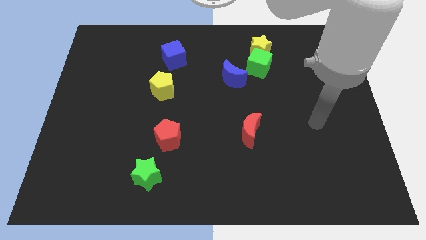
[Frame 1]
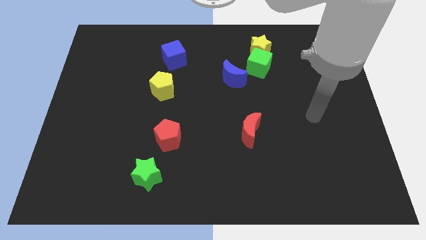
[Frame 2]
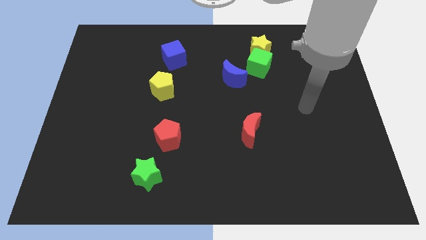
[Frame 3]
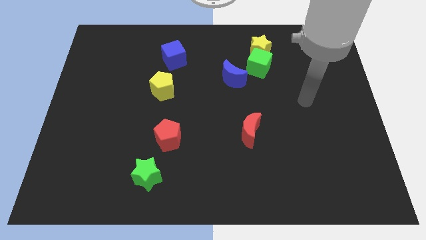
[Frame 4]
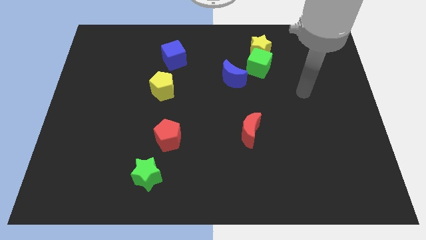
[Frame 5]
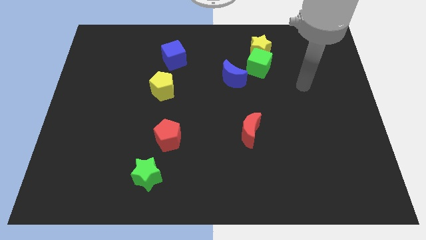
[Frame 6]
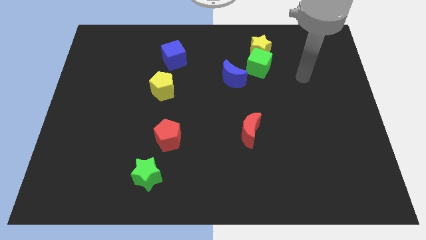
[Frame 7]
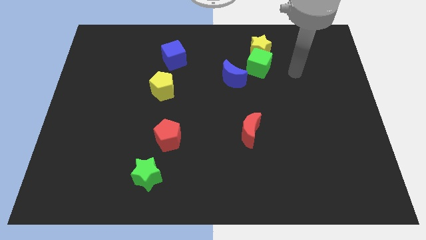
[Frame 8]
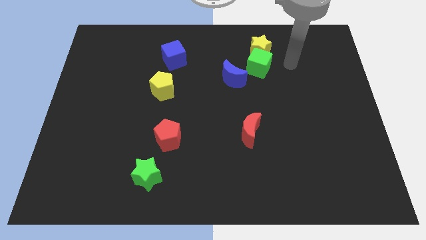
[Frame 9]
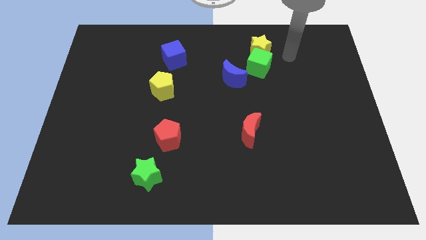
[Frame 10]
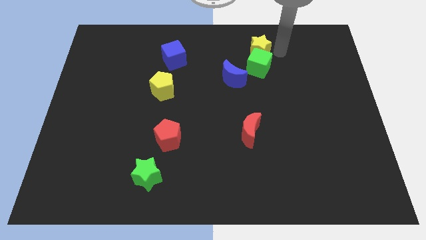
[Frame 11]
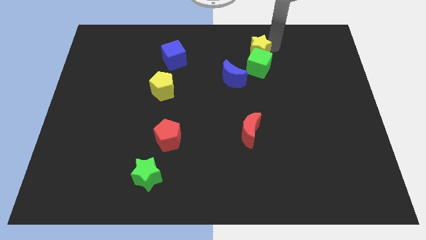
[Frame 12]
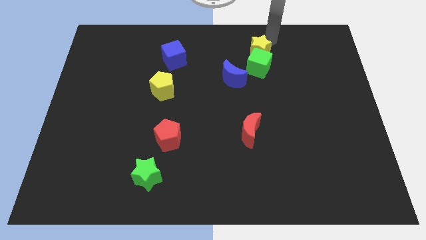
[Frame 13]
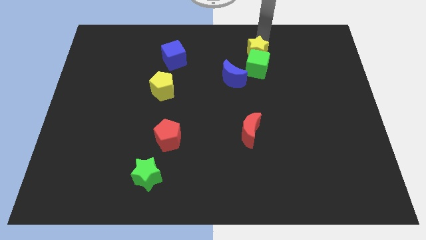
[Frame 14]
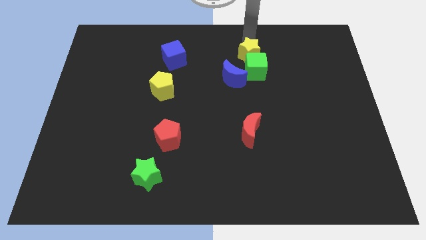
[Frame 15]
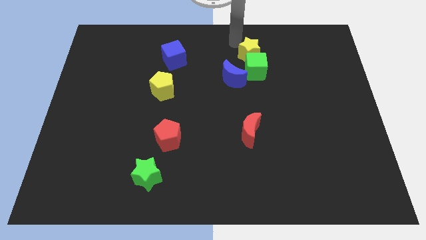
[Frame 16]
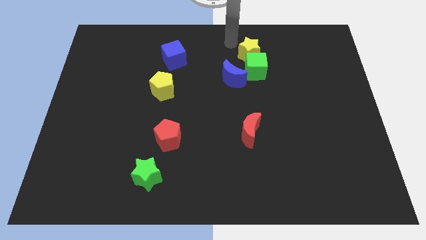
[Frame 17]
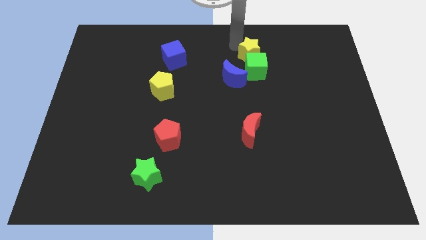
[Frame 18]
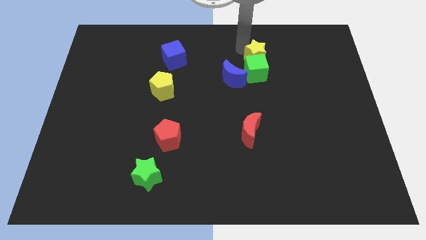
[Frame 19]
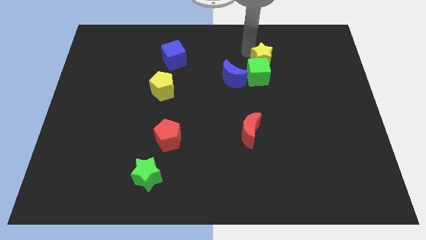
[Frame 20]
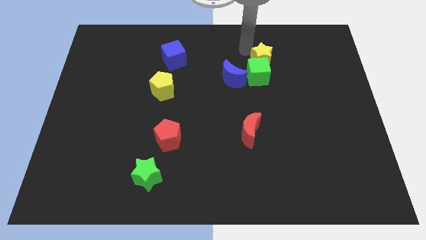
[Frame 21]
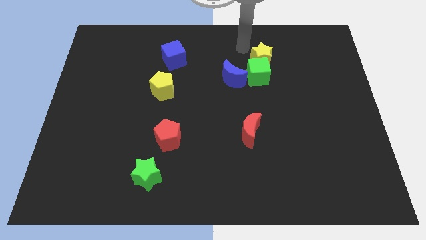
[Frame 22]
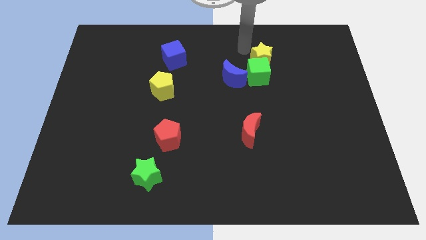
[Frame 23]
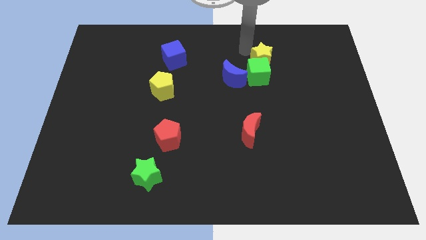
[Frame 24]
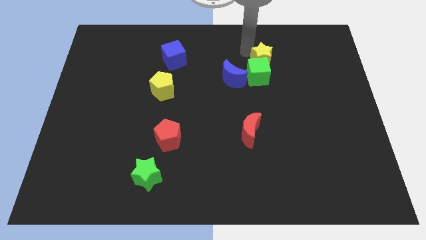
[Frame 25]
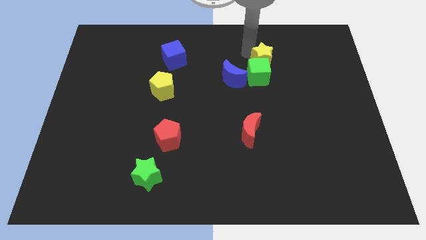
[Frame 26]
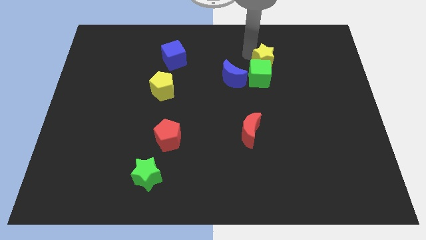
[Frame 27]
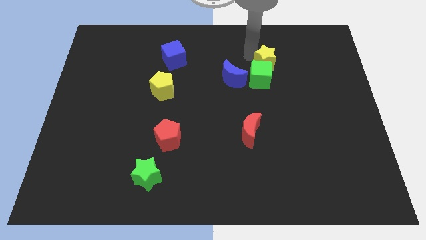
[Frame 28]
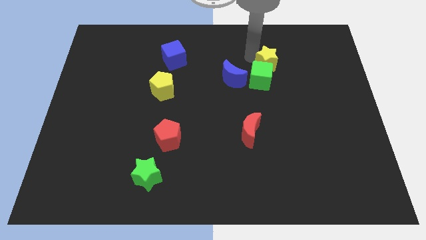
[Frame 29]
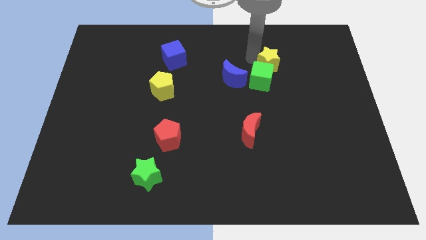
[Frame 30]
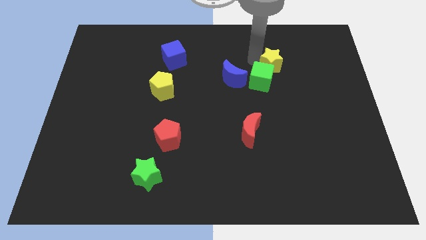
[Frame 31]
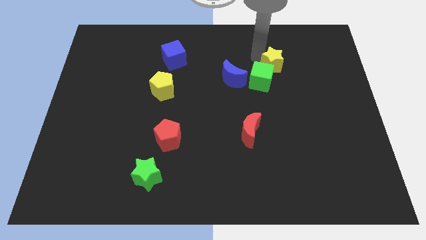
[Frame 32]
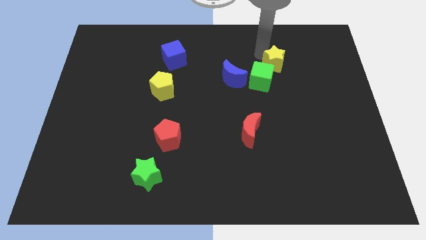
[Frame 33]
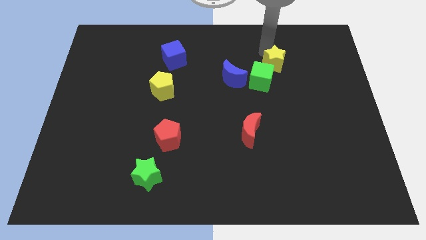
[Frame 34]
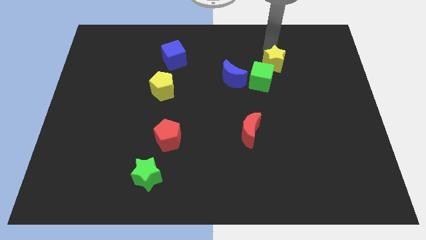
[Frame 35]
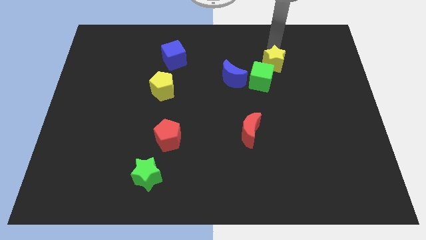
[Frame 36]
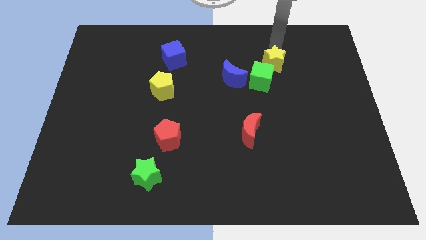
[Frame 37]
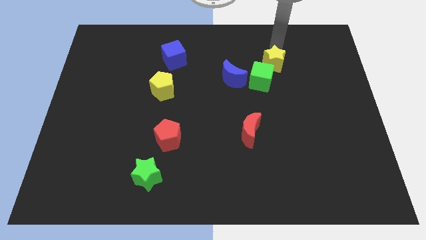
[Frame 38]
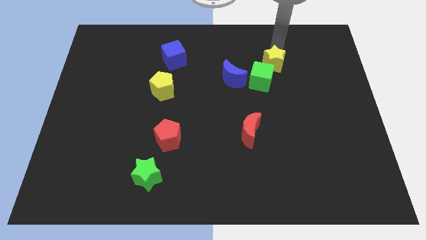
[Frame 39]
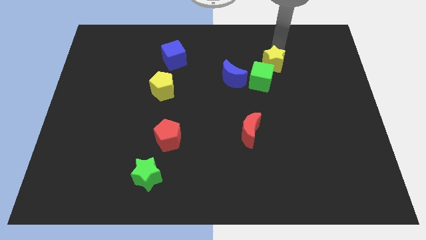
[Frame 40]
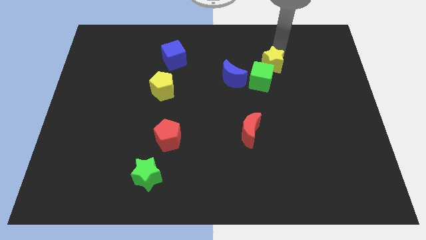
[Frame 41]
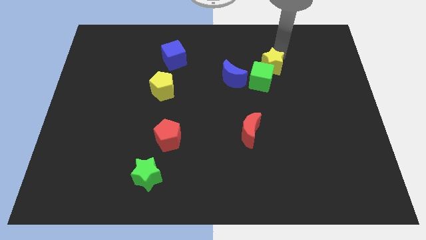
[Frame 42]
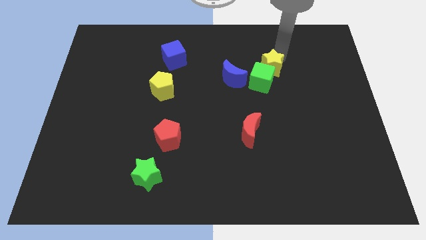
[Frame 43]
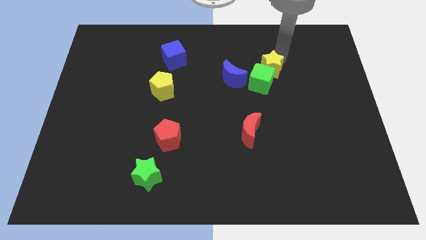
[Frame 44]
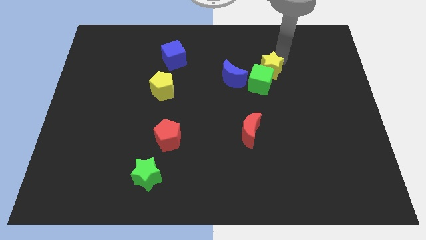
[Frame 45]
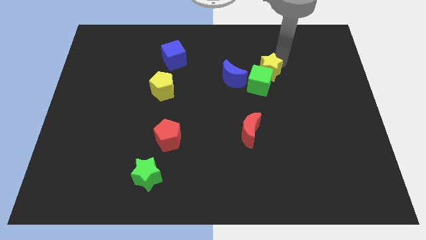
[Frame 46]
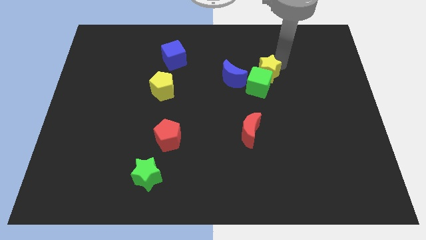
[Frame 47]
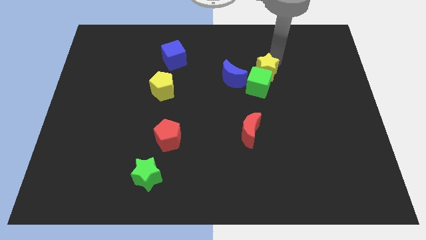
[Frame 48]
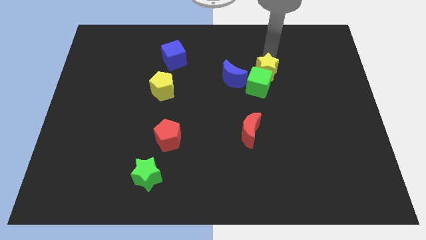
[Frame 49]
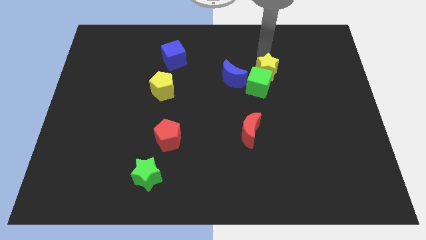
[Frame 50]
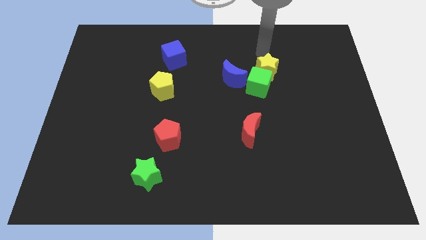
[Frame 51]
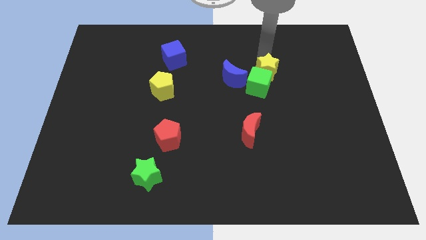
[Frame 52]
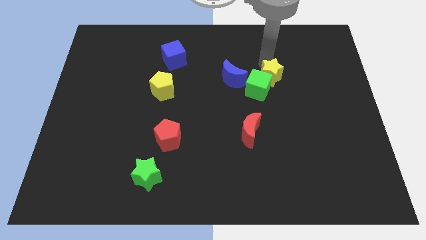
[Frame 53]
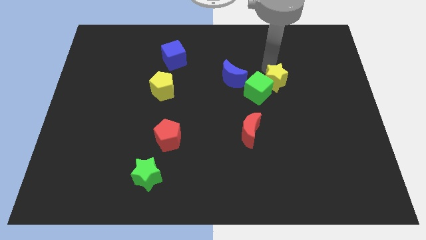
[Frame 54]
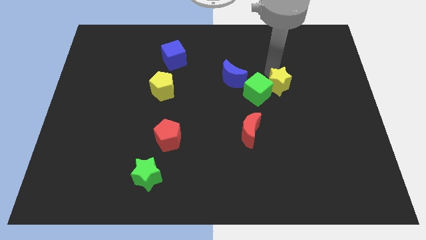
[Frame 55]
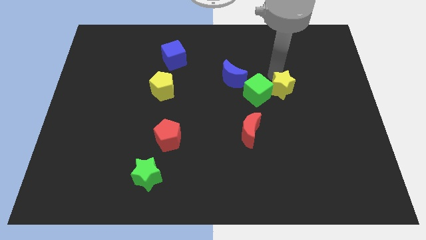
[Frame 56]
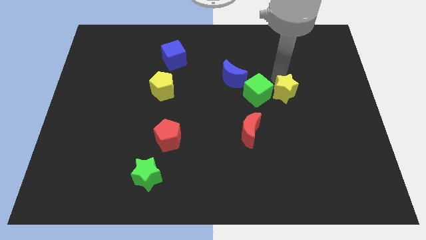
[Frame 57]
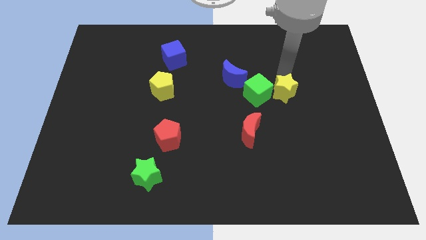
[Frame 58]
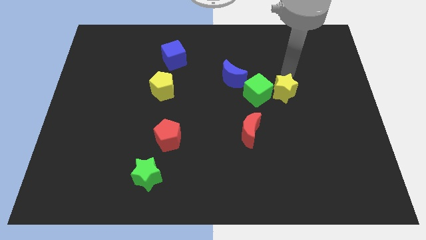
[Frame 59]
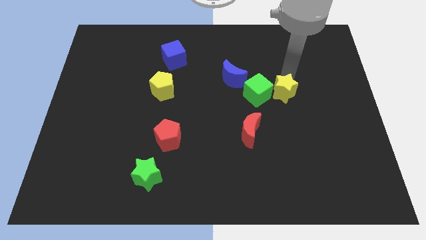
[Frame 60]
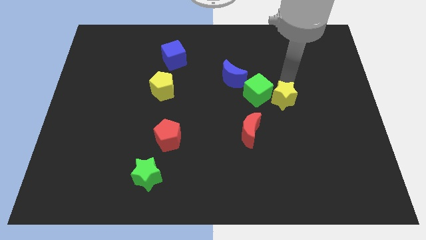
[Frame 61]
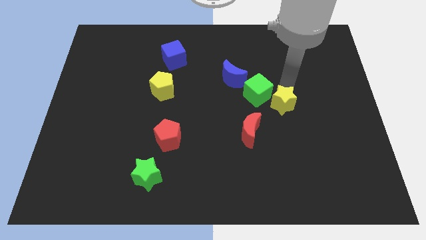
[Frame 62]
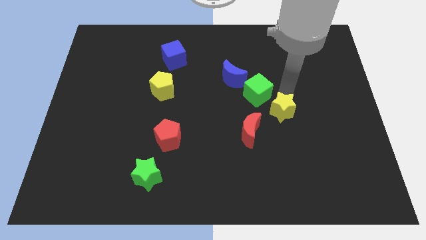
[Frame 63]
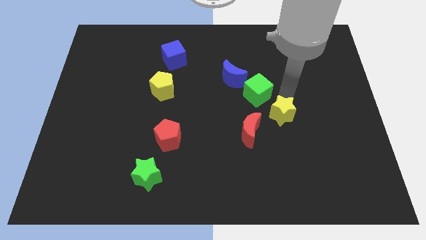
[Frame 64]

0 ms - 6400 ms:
move the yellow star downwards

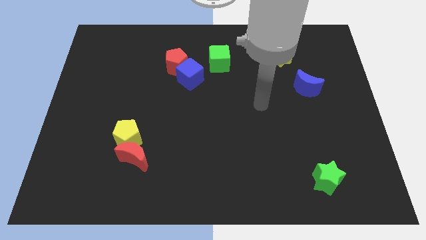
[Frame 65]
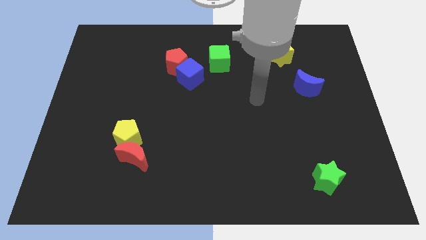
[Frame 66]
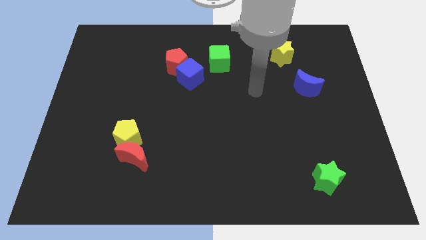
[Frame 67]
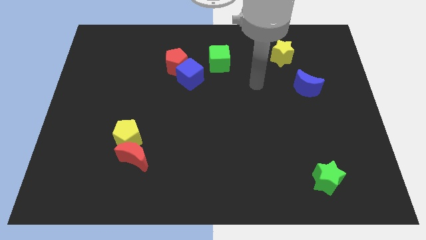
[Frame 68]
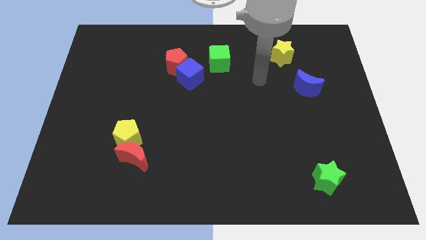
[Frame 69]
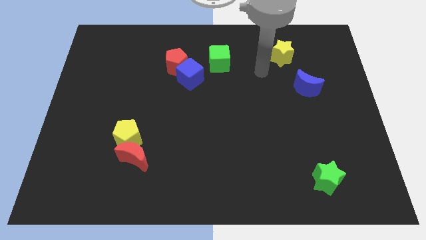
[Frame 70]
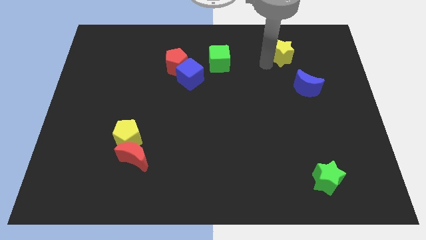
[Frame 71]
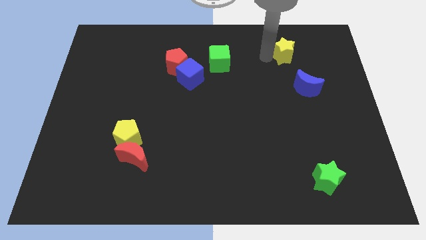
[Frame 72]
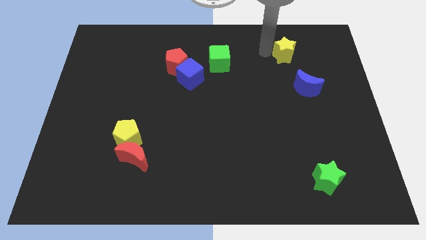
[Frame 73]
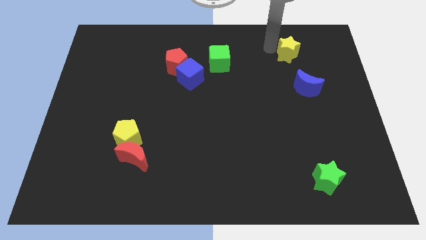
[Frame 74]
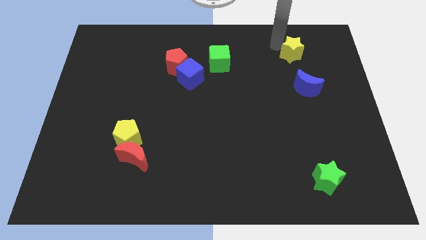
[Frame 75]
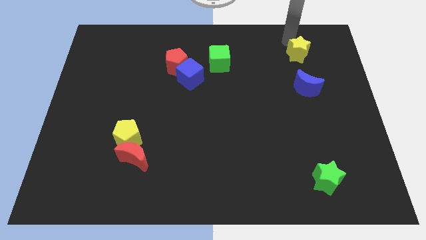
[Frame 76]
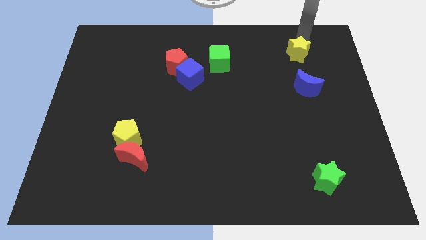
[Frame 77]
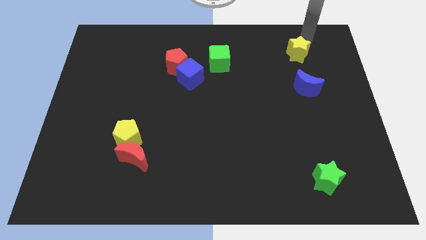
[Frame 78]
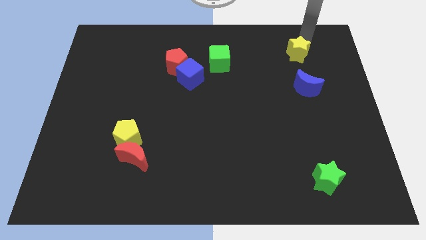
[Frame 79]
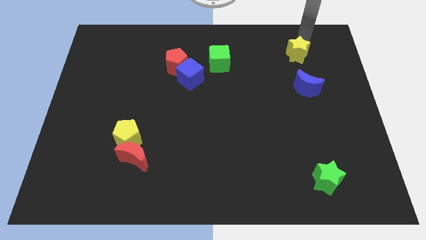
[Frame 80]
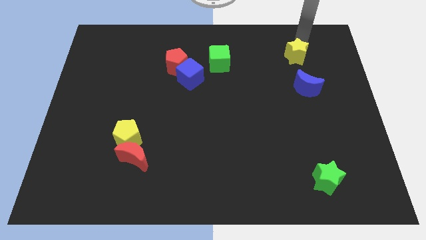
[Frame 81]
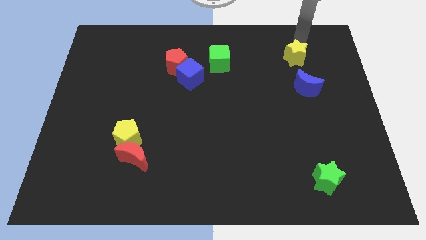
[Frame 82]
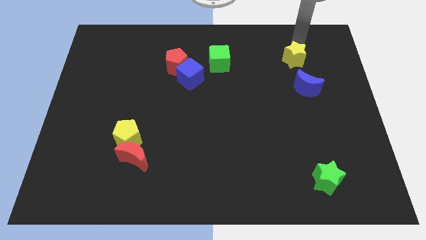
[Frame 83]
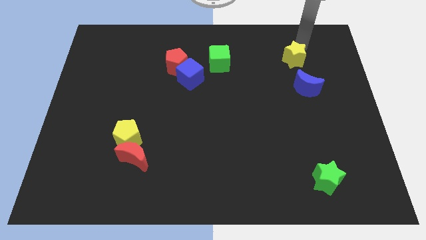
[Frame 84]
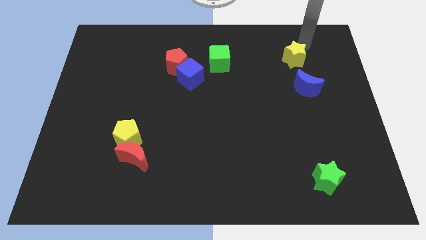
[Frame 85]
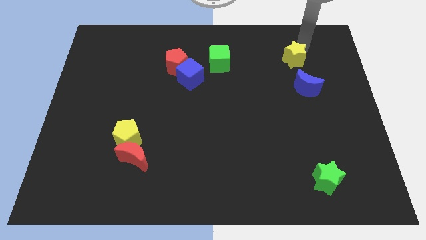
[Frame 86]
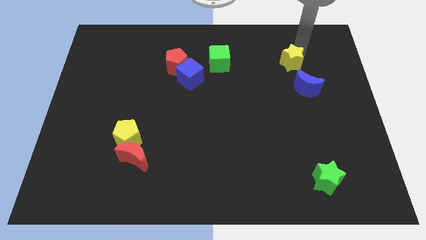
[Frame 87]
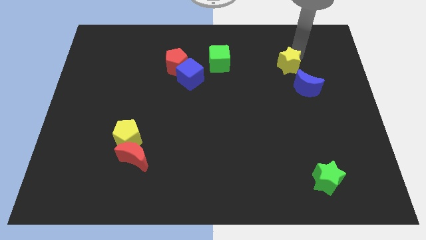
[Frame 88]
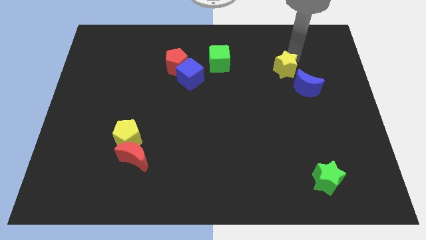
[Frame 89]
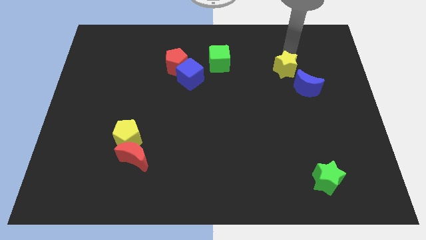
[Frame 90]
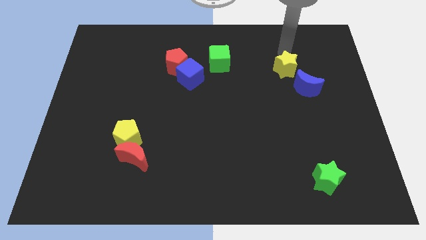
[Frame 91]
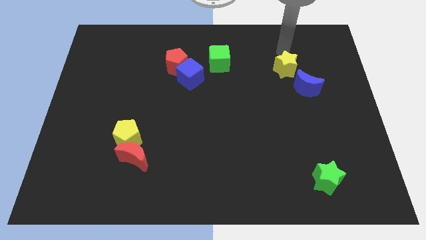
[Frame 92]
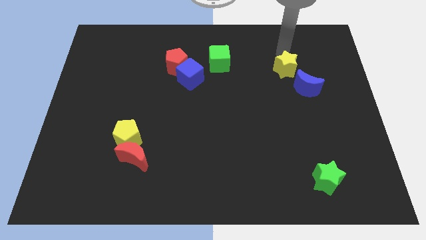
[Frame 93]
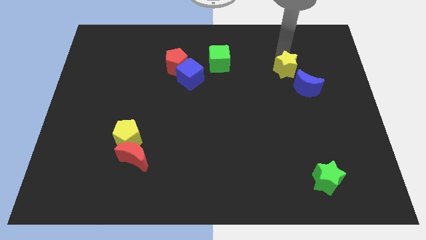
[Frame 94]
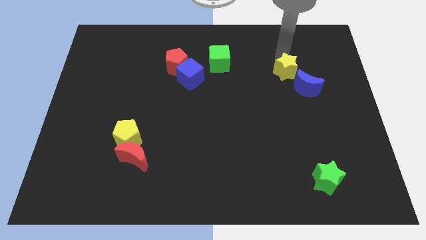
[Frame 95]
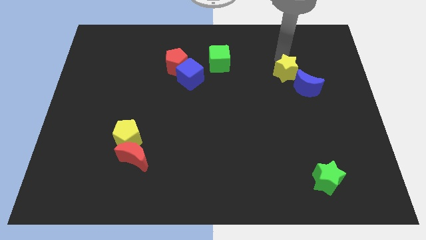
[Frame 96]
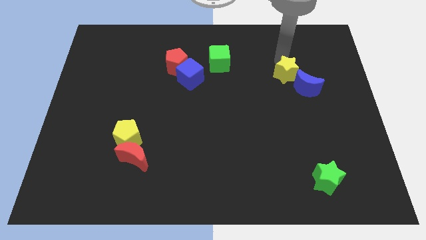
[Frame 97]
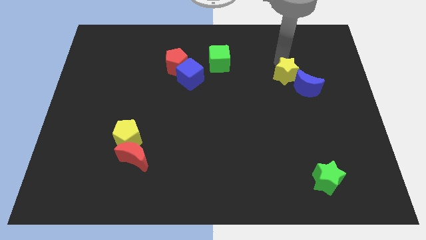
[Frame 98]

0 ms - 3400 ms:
move the yellow star a bit downwards
